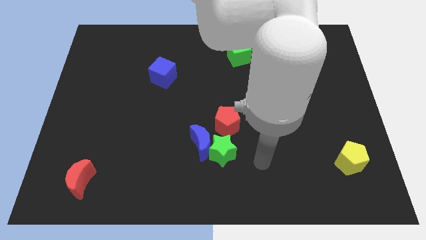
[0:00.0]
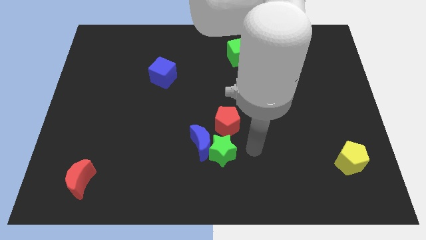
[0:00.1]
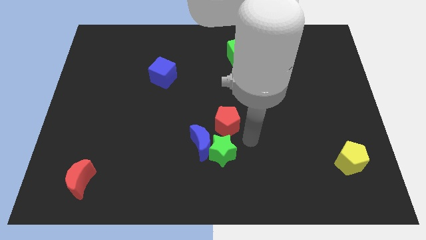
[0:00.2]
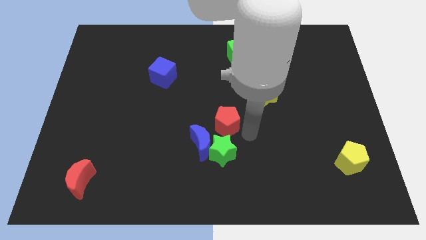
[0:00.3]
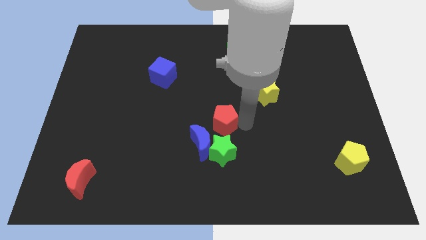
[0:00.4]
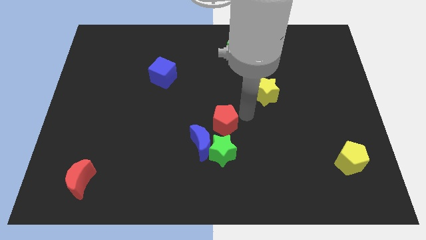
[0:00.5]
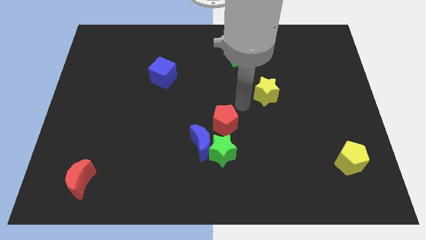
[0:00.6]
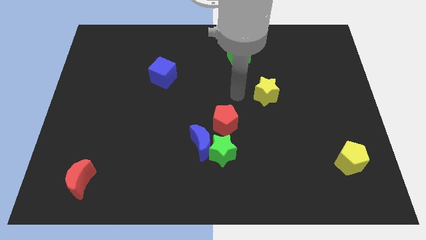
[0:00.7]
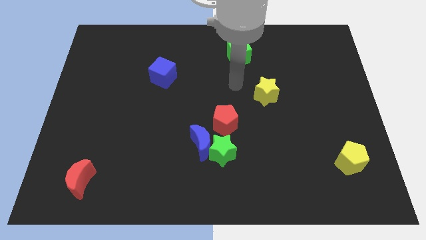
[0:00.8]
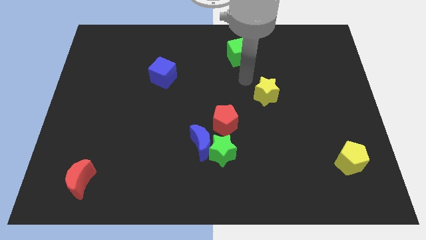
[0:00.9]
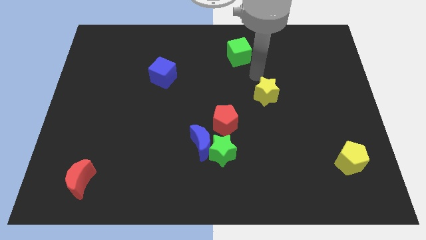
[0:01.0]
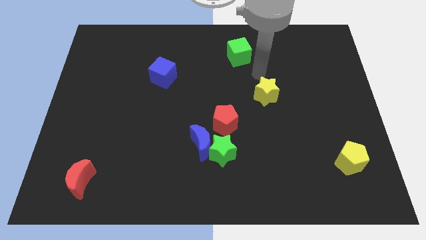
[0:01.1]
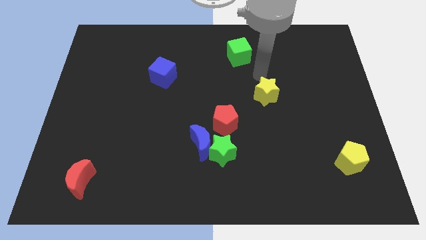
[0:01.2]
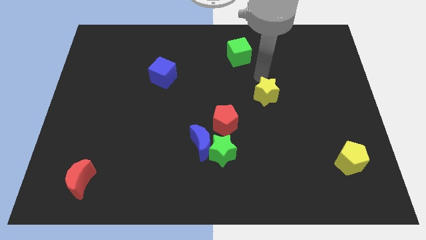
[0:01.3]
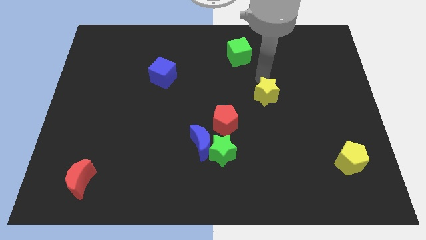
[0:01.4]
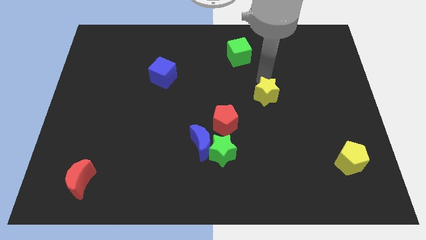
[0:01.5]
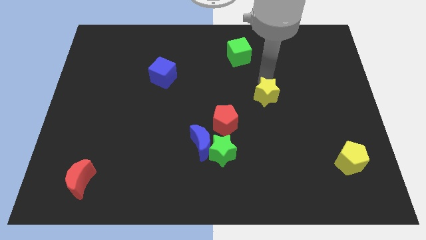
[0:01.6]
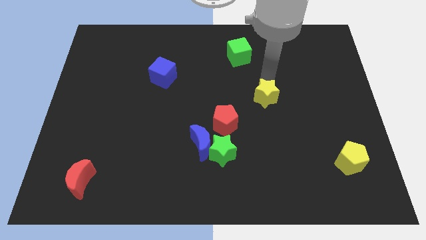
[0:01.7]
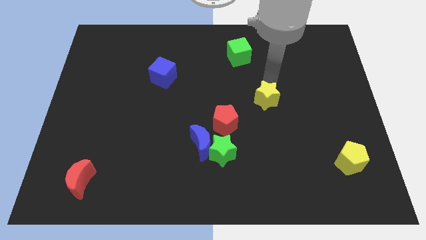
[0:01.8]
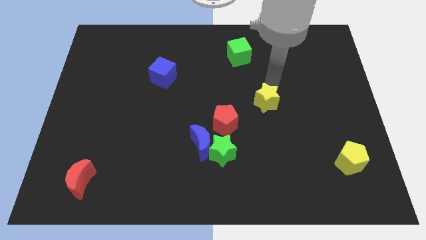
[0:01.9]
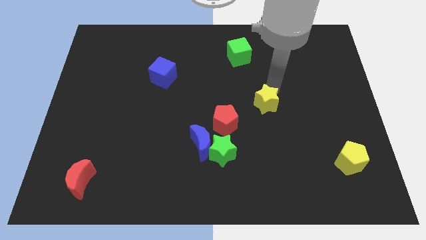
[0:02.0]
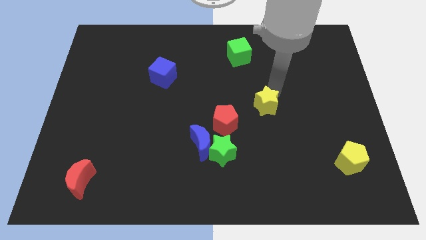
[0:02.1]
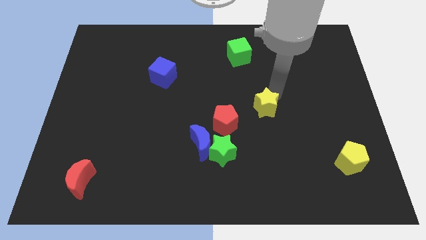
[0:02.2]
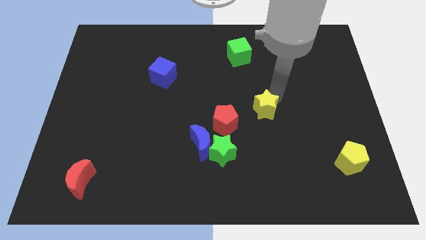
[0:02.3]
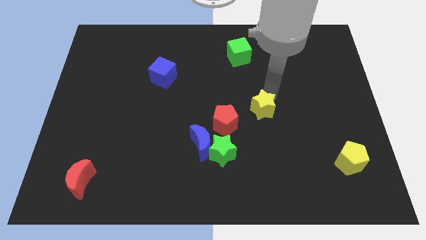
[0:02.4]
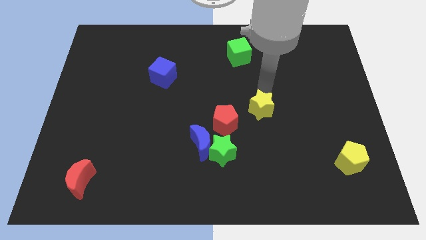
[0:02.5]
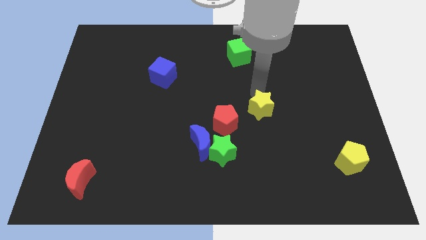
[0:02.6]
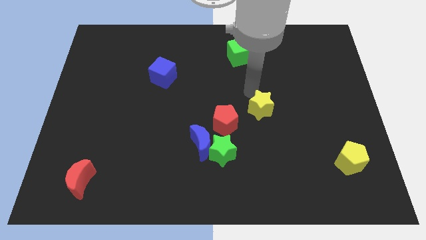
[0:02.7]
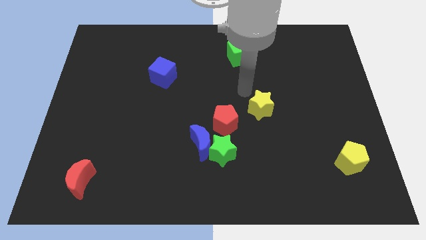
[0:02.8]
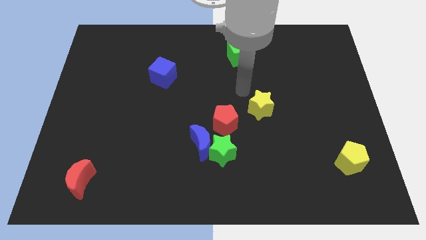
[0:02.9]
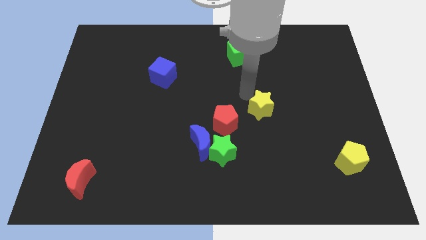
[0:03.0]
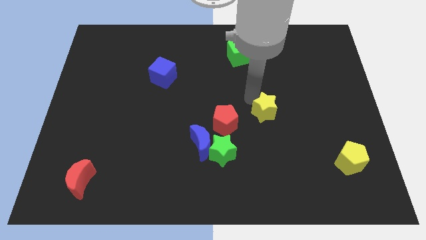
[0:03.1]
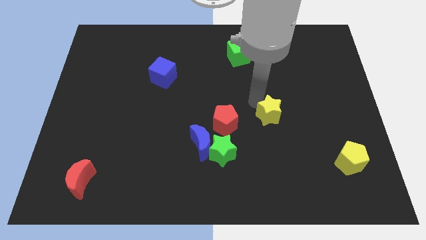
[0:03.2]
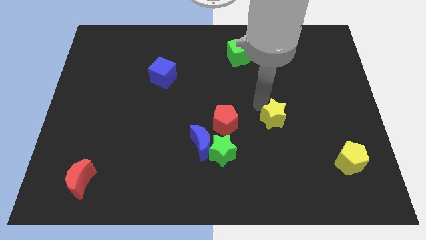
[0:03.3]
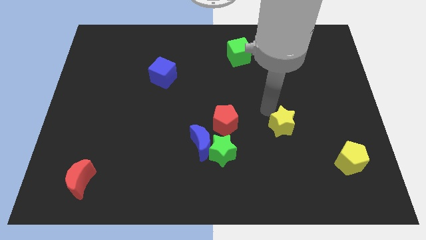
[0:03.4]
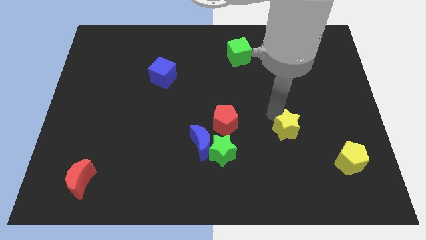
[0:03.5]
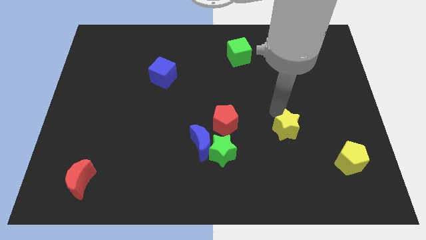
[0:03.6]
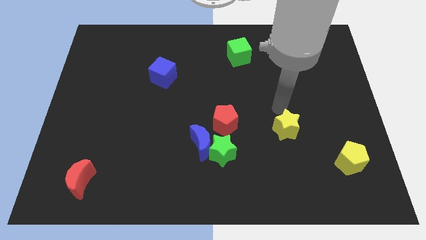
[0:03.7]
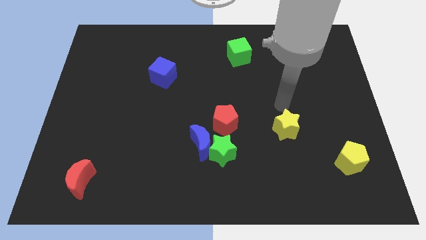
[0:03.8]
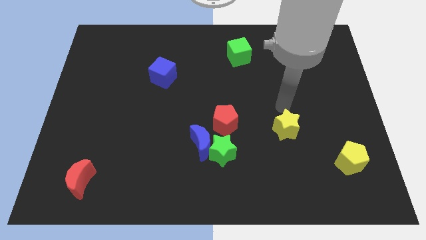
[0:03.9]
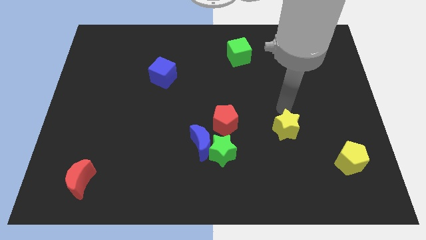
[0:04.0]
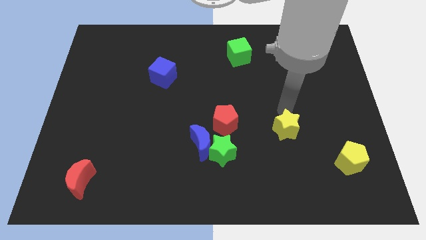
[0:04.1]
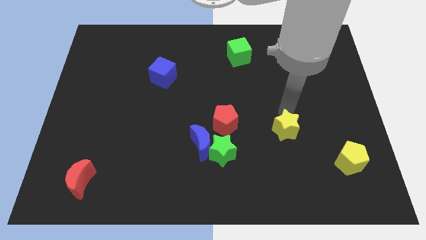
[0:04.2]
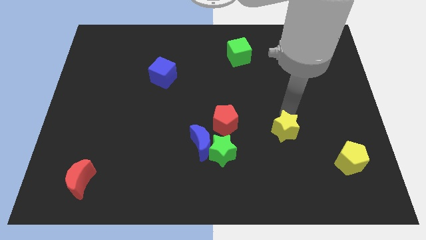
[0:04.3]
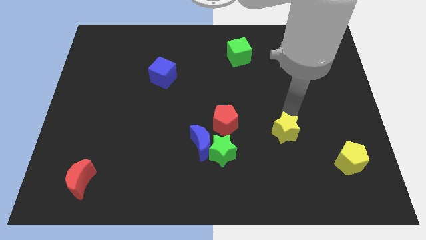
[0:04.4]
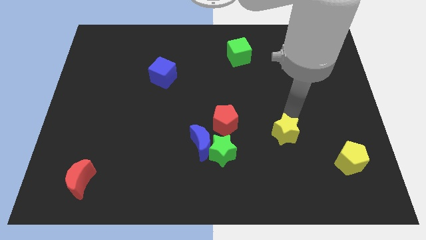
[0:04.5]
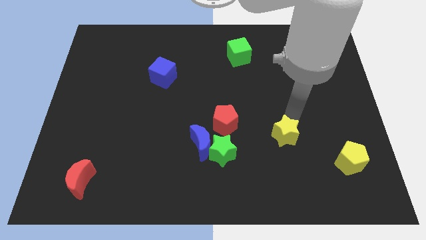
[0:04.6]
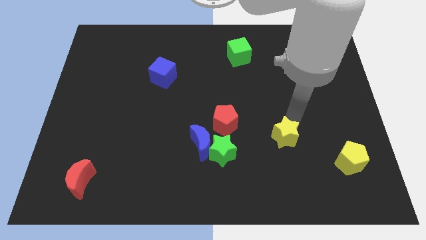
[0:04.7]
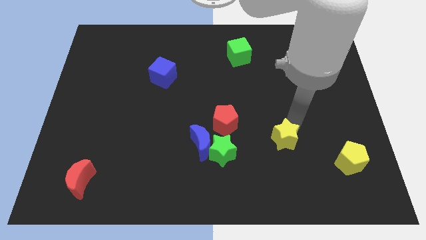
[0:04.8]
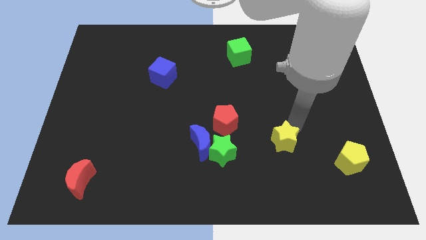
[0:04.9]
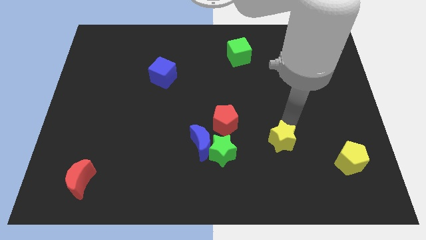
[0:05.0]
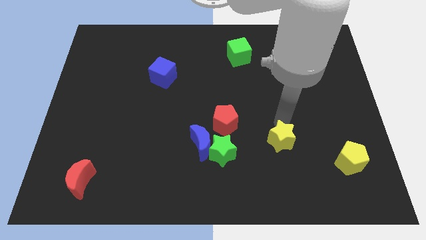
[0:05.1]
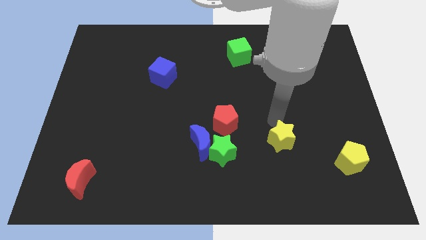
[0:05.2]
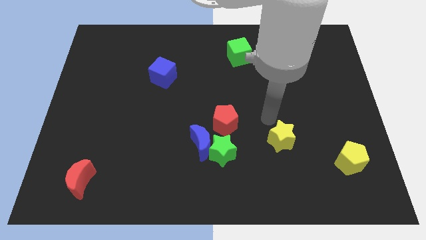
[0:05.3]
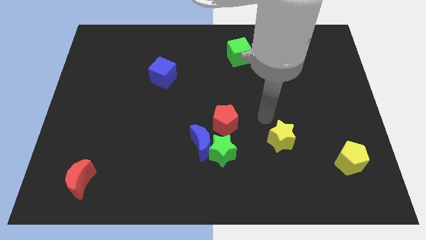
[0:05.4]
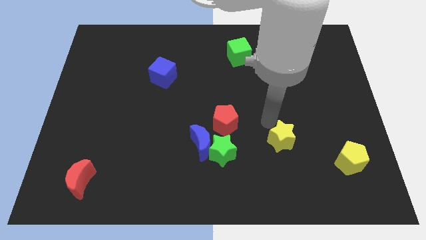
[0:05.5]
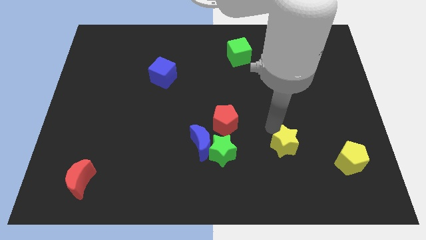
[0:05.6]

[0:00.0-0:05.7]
move the yellow star just left of the yellow pentagon

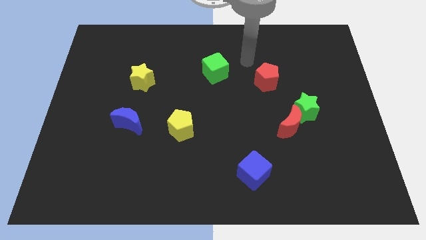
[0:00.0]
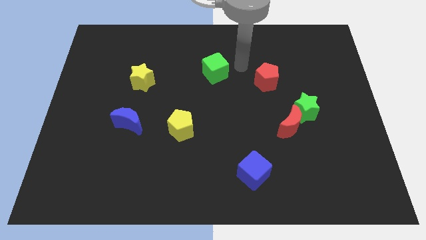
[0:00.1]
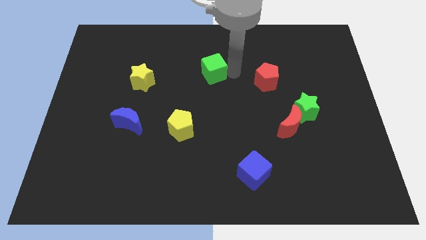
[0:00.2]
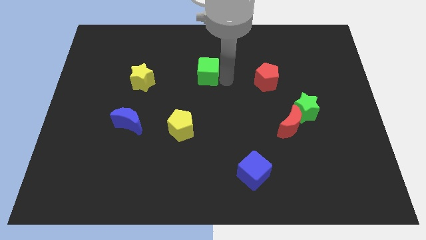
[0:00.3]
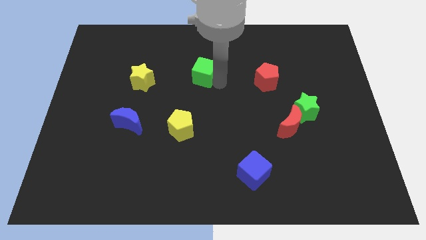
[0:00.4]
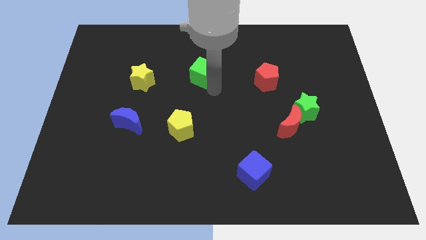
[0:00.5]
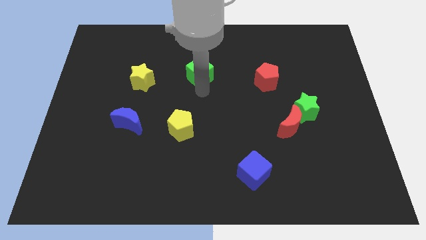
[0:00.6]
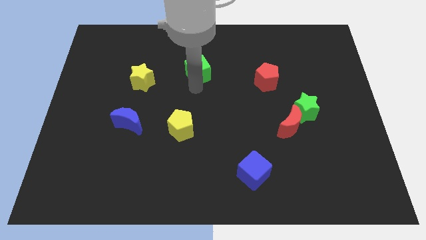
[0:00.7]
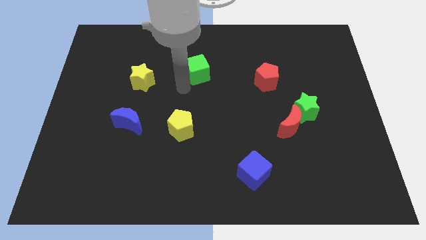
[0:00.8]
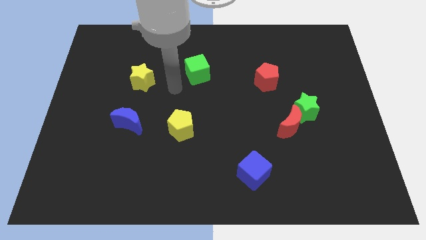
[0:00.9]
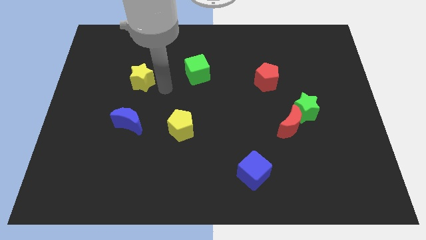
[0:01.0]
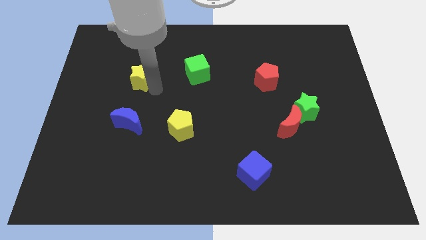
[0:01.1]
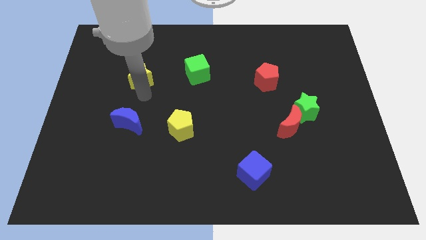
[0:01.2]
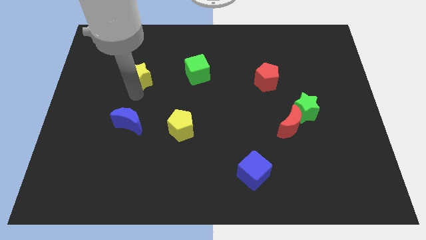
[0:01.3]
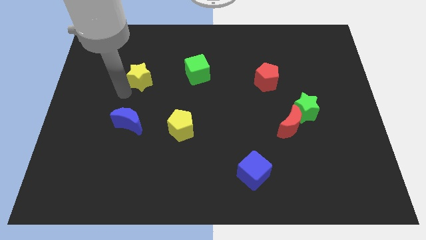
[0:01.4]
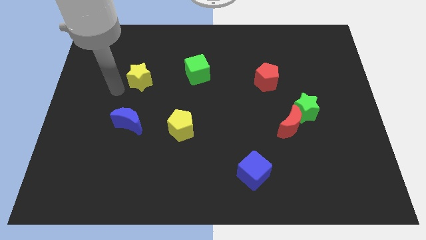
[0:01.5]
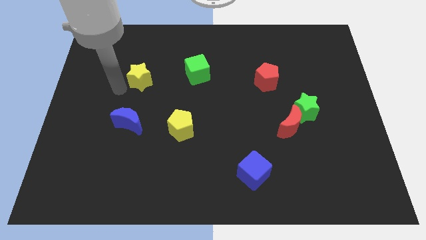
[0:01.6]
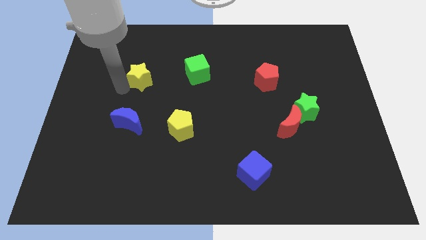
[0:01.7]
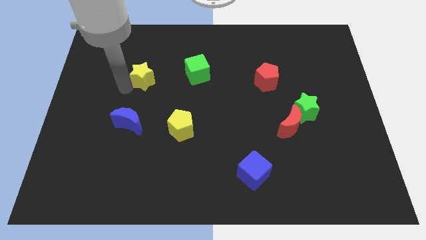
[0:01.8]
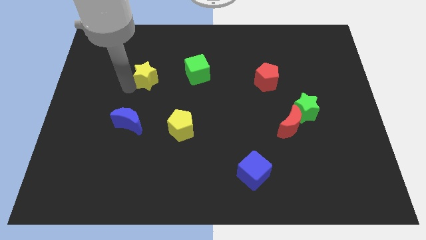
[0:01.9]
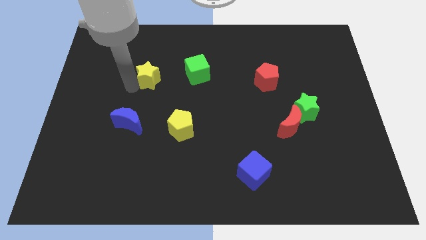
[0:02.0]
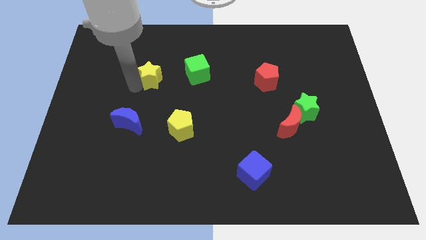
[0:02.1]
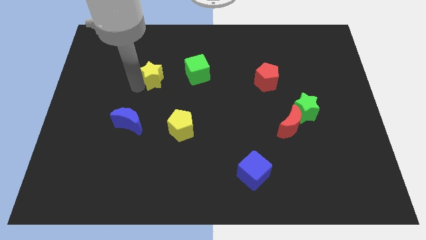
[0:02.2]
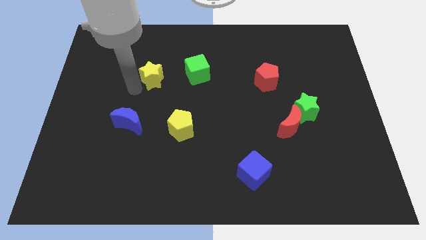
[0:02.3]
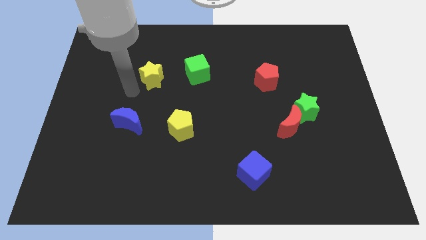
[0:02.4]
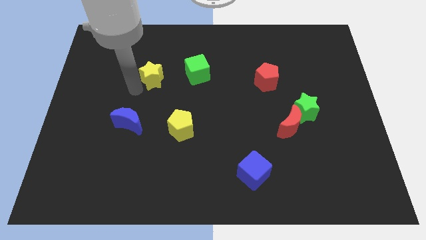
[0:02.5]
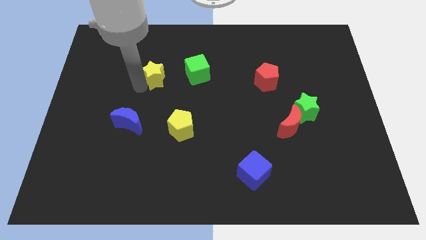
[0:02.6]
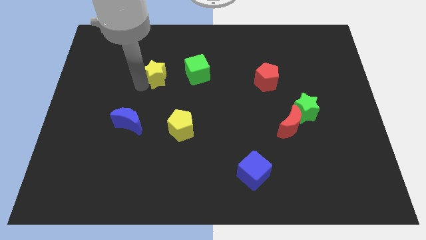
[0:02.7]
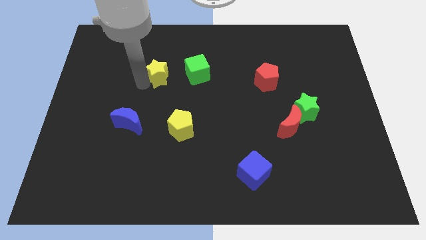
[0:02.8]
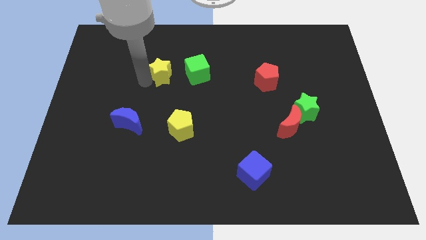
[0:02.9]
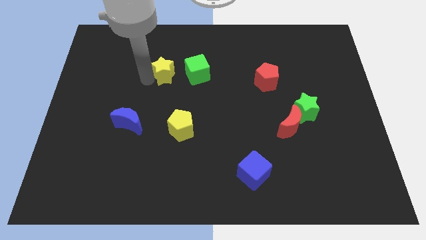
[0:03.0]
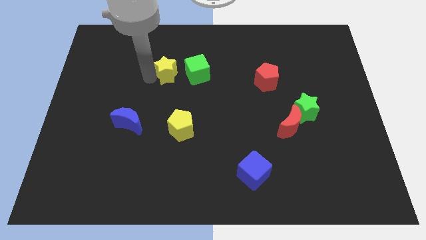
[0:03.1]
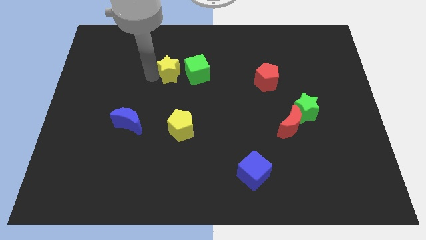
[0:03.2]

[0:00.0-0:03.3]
slide the yellow star to the top left of the green cube
